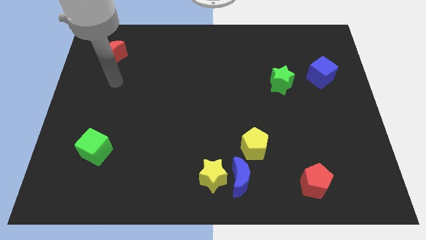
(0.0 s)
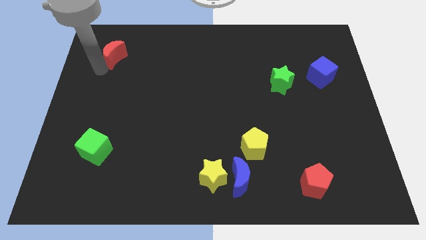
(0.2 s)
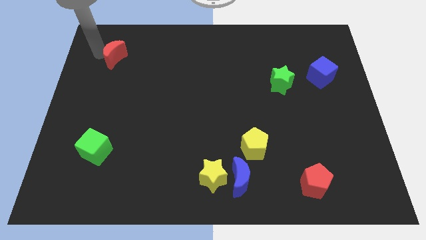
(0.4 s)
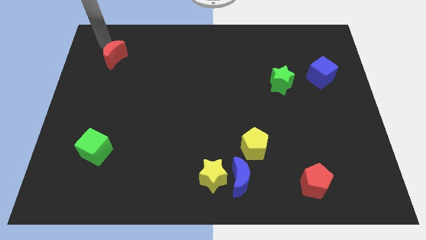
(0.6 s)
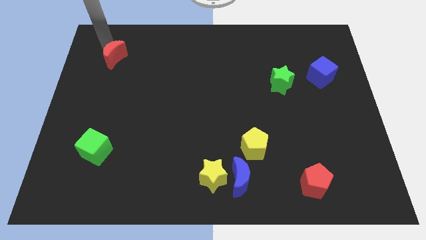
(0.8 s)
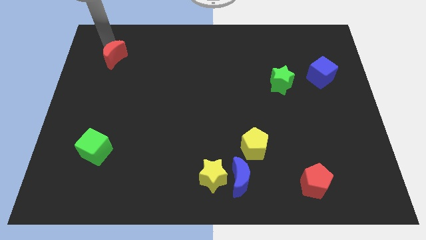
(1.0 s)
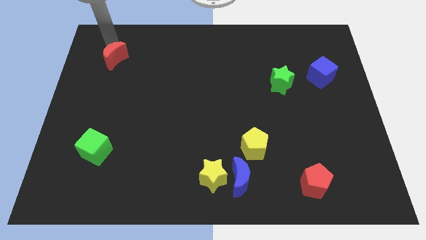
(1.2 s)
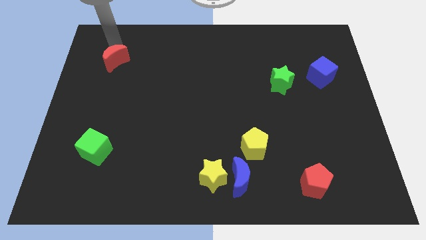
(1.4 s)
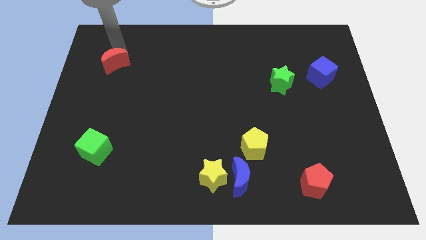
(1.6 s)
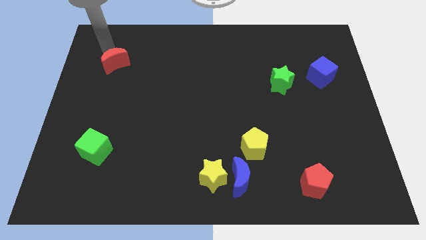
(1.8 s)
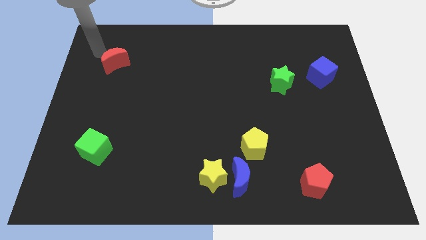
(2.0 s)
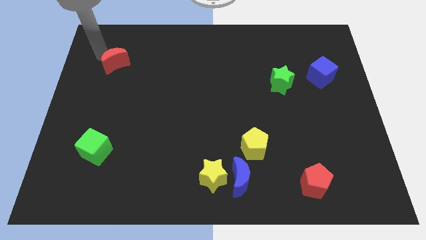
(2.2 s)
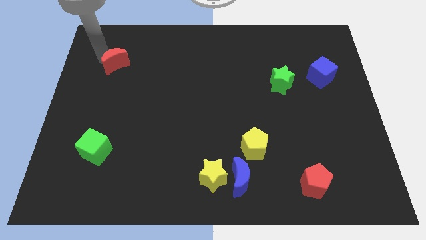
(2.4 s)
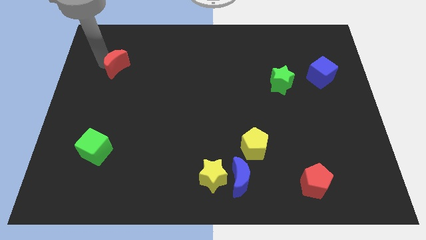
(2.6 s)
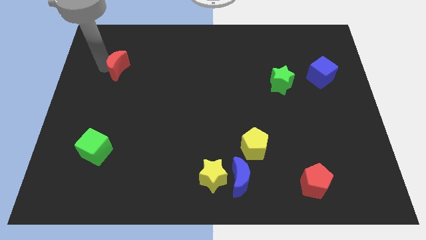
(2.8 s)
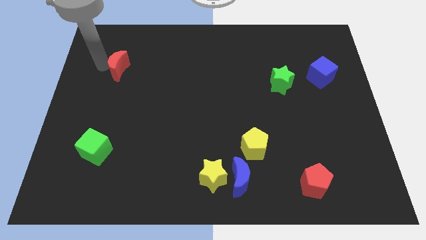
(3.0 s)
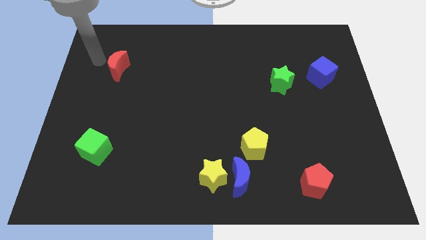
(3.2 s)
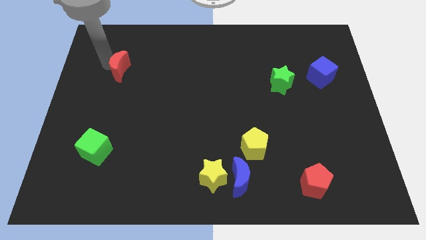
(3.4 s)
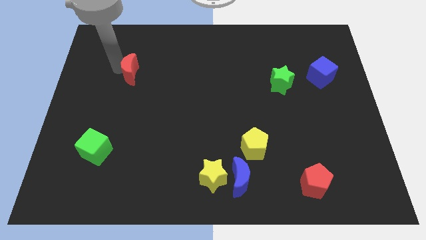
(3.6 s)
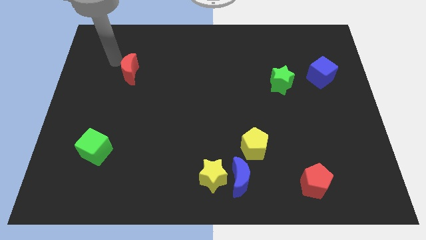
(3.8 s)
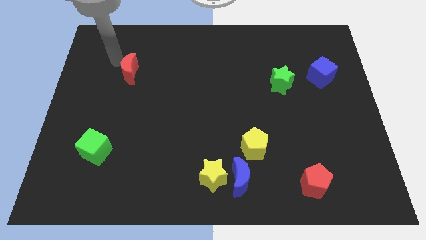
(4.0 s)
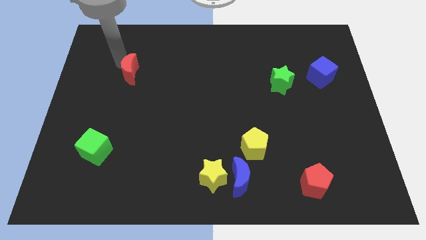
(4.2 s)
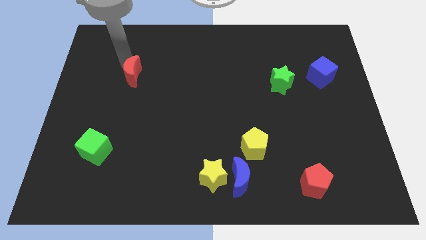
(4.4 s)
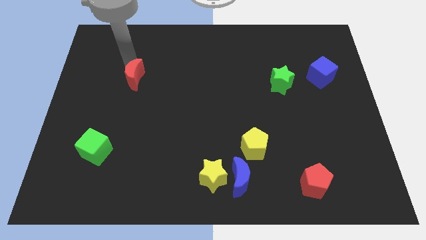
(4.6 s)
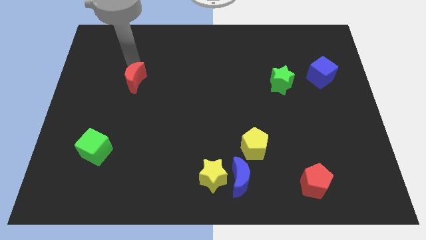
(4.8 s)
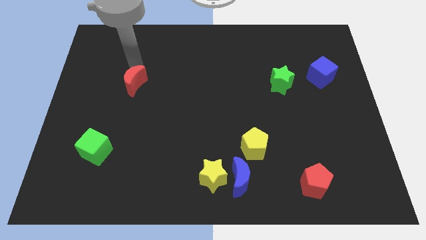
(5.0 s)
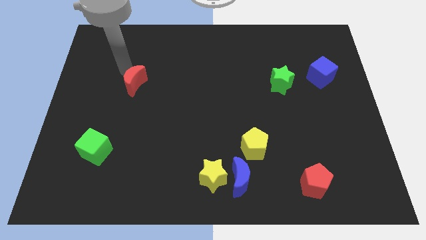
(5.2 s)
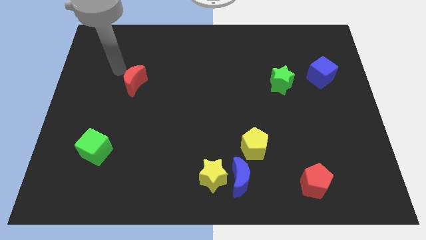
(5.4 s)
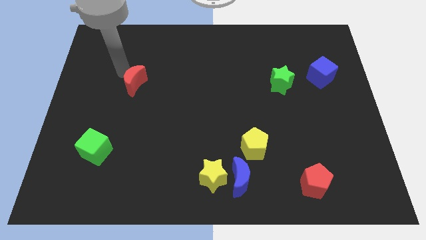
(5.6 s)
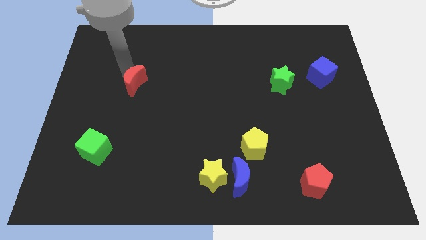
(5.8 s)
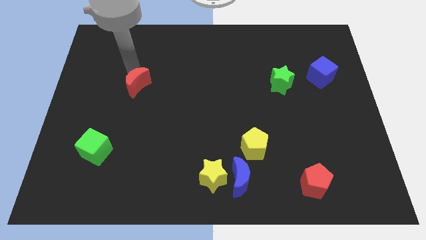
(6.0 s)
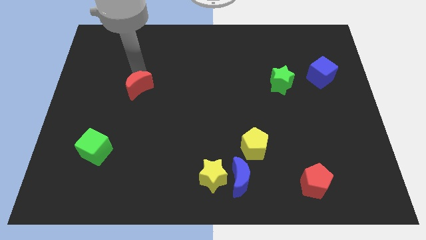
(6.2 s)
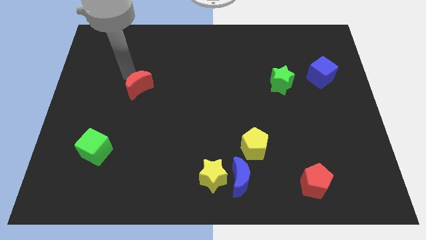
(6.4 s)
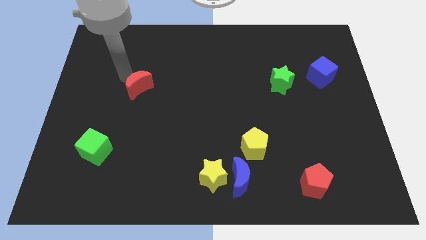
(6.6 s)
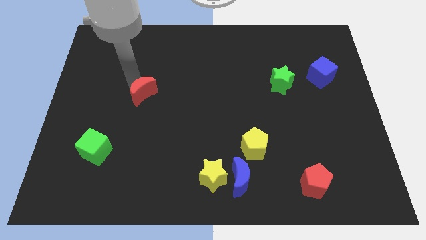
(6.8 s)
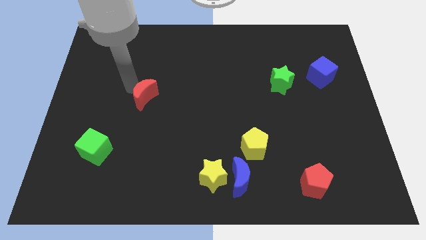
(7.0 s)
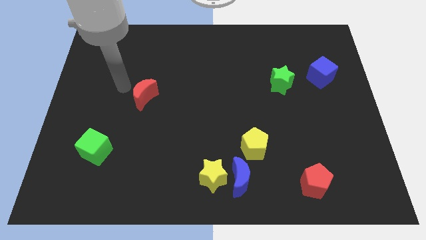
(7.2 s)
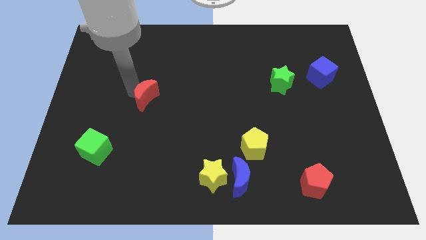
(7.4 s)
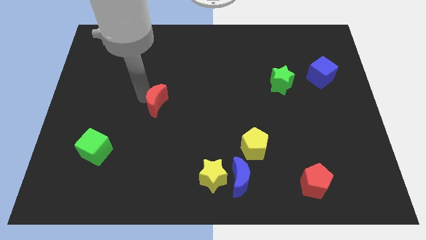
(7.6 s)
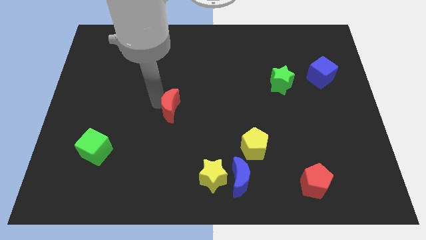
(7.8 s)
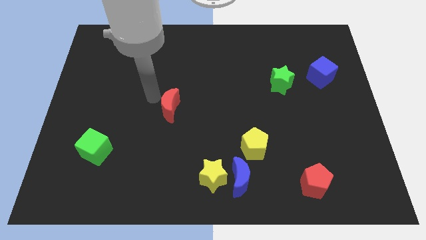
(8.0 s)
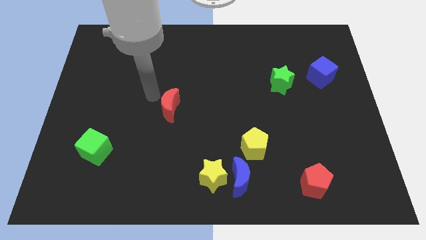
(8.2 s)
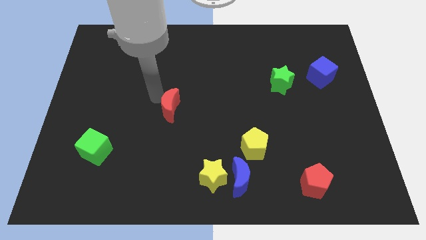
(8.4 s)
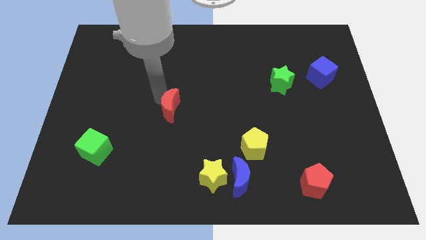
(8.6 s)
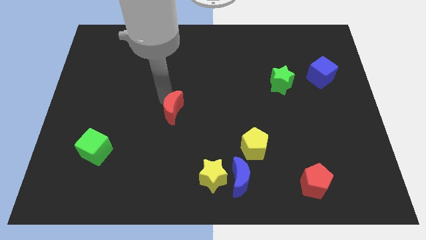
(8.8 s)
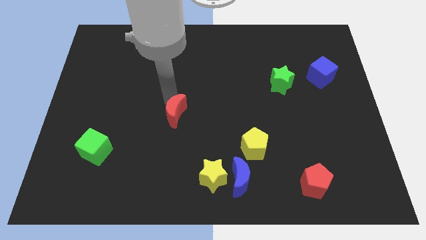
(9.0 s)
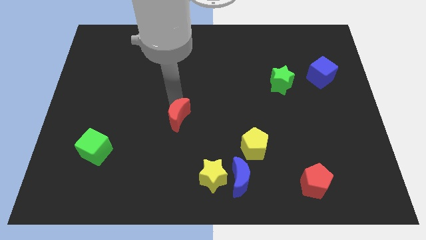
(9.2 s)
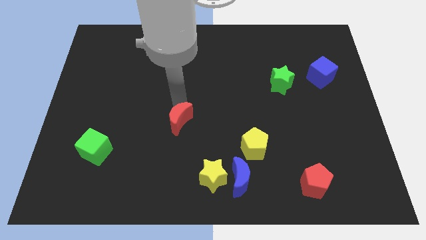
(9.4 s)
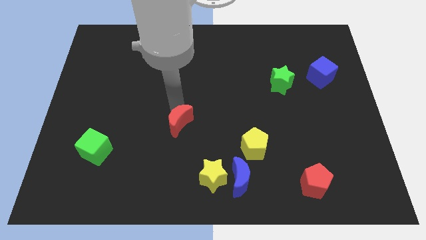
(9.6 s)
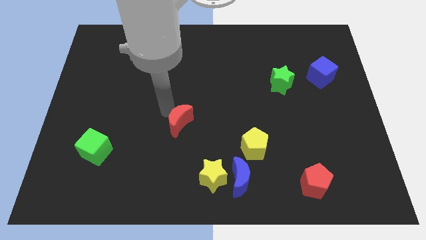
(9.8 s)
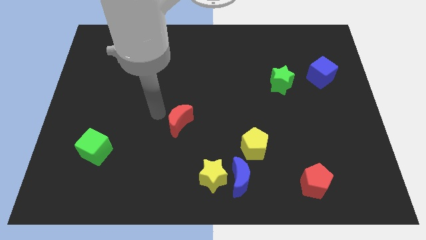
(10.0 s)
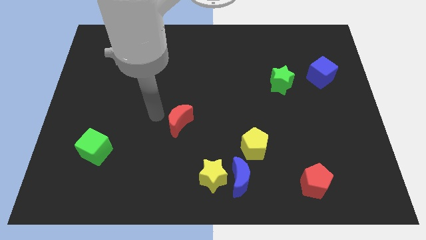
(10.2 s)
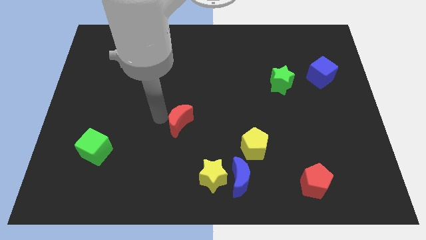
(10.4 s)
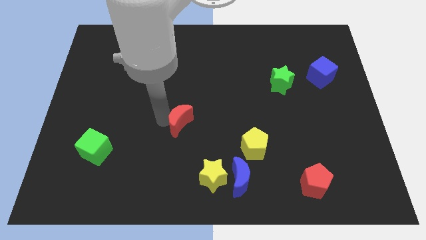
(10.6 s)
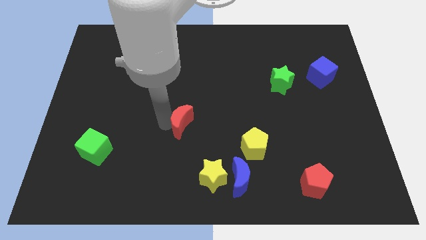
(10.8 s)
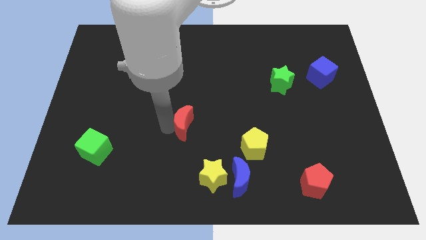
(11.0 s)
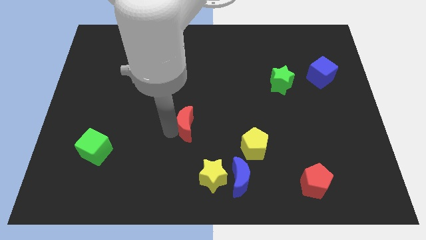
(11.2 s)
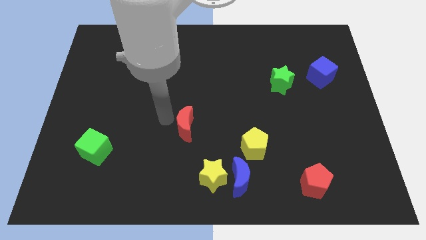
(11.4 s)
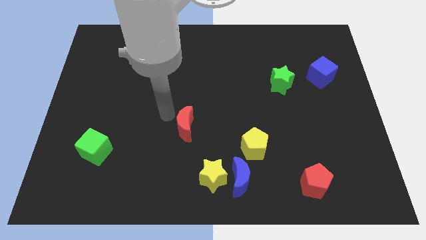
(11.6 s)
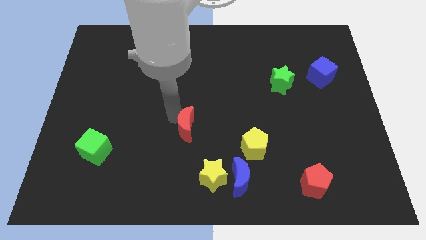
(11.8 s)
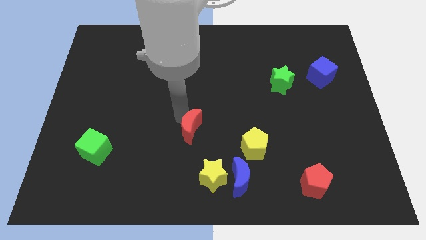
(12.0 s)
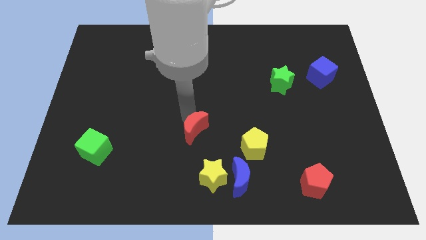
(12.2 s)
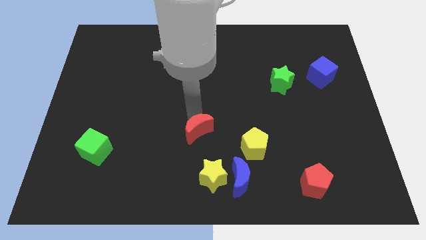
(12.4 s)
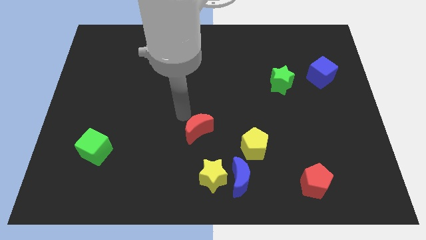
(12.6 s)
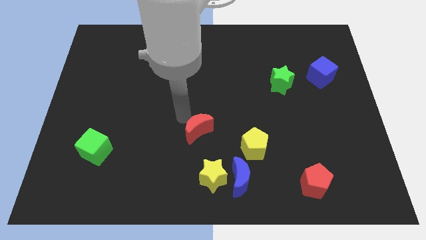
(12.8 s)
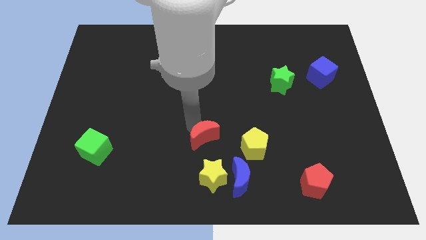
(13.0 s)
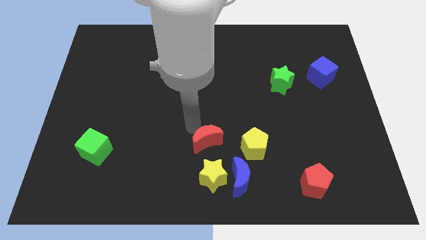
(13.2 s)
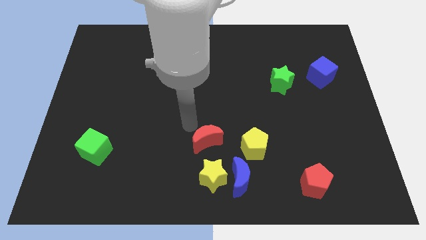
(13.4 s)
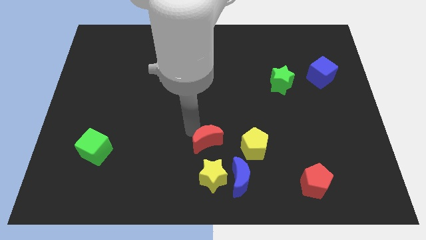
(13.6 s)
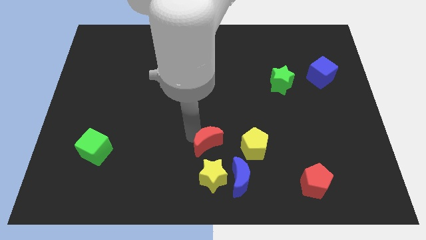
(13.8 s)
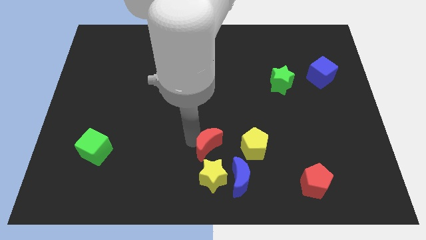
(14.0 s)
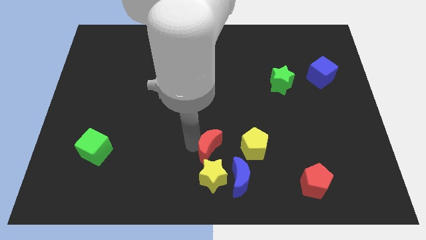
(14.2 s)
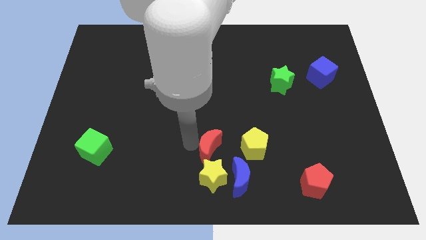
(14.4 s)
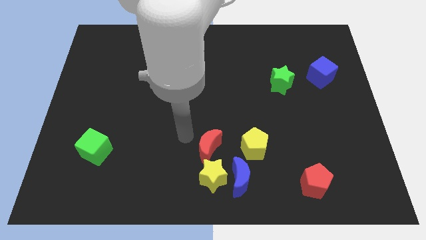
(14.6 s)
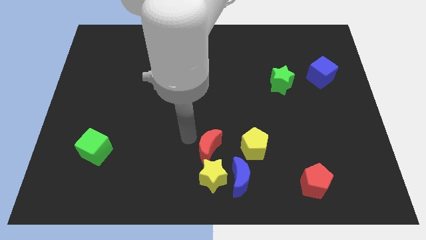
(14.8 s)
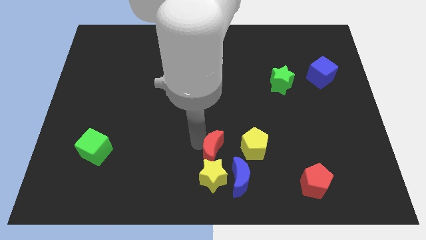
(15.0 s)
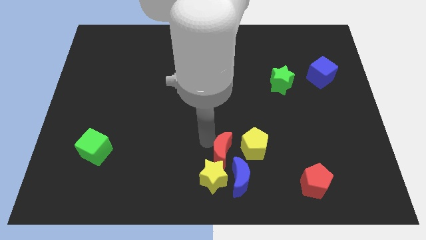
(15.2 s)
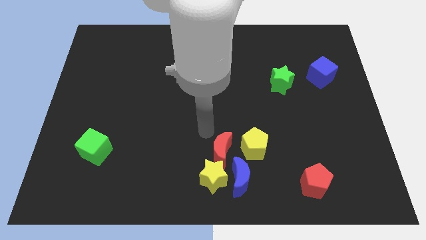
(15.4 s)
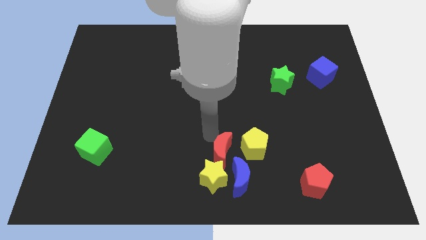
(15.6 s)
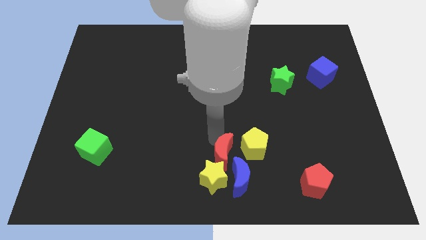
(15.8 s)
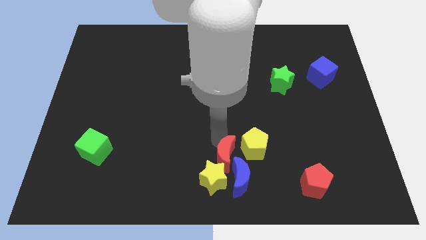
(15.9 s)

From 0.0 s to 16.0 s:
push the red moon next to the blue moon
